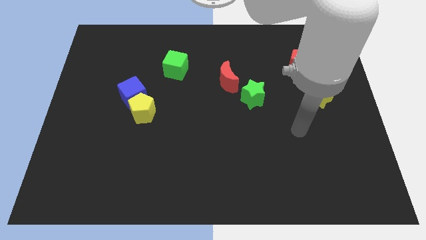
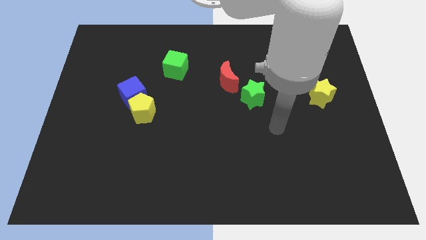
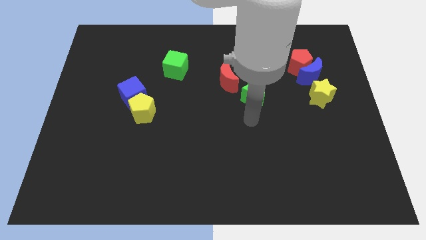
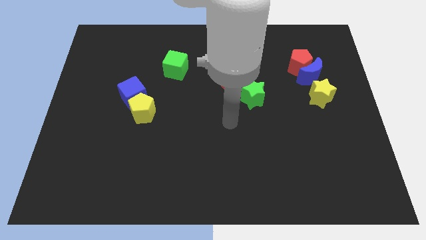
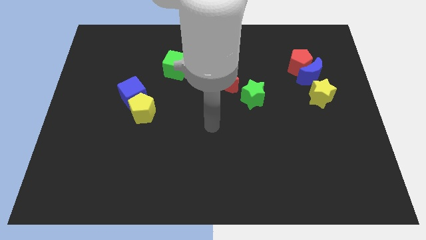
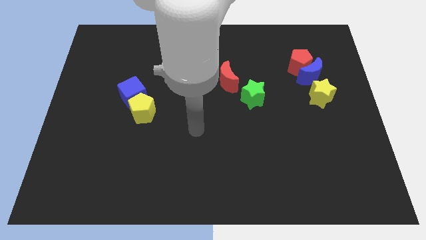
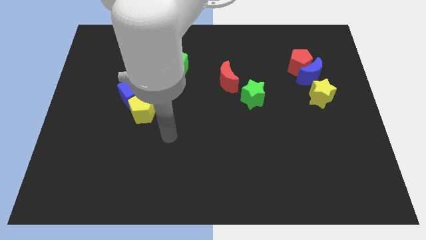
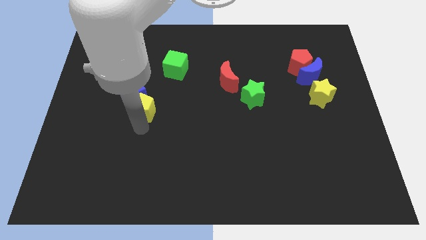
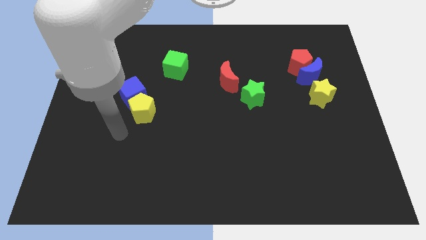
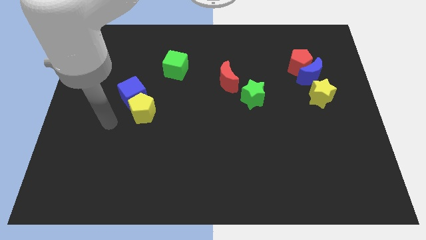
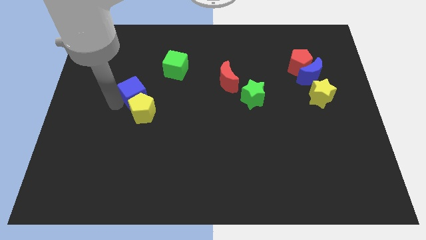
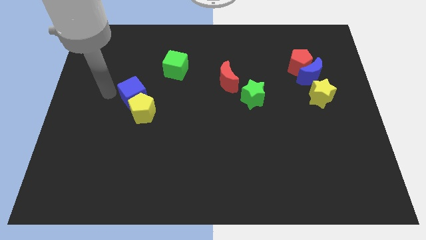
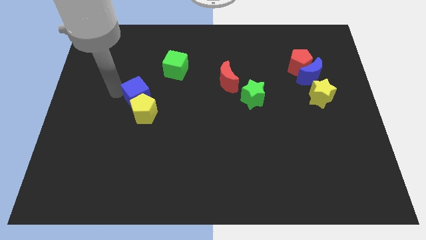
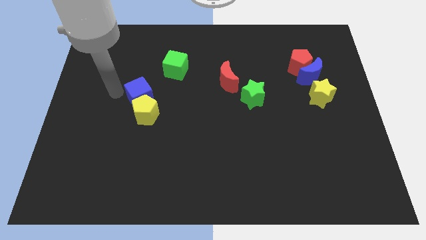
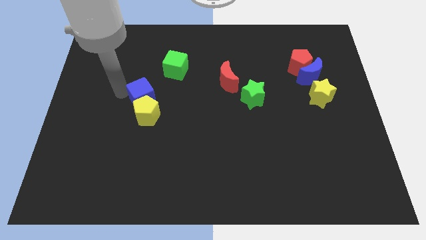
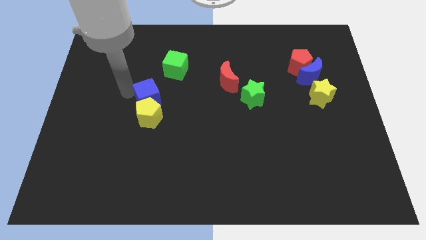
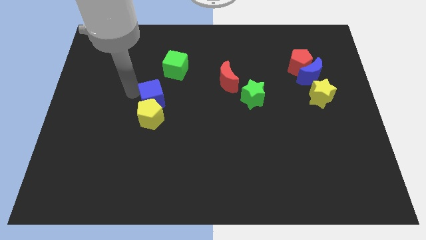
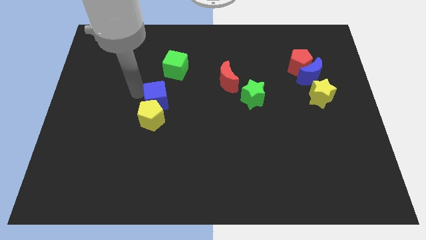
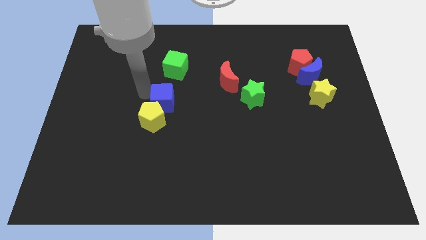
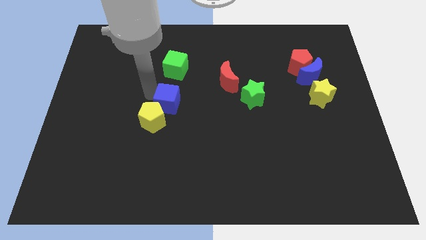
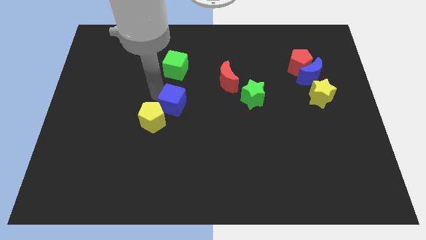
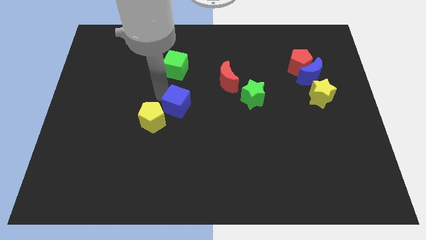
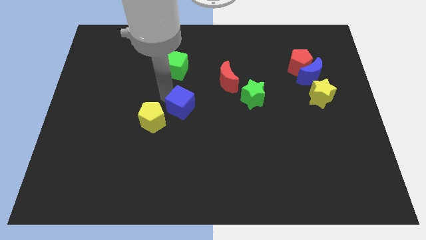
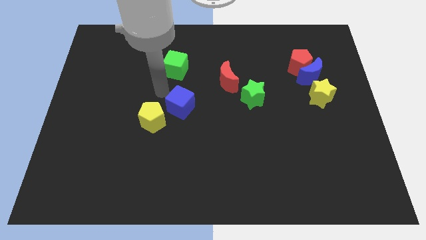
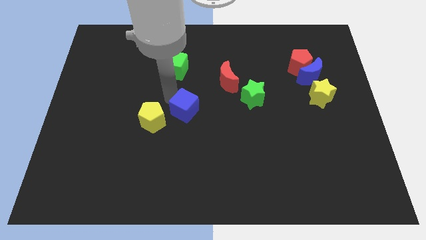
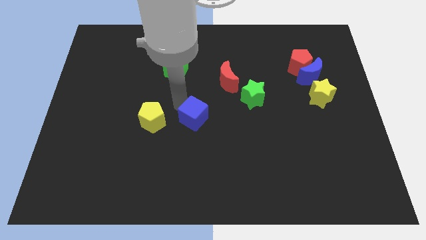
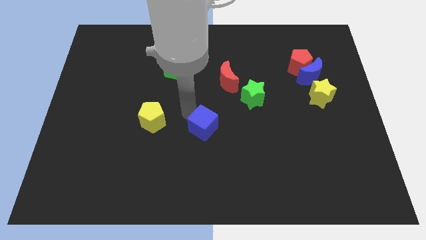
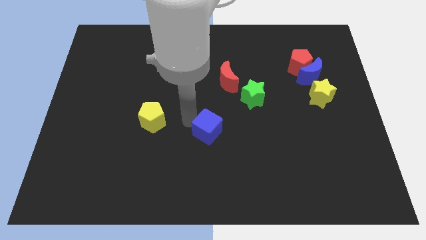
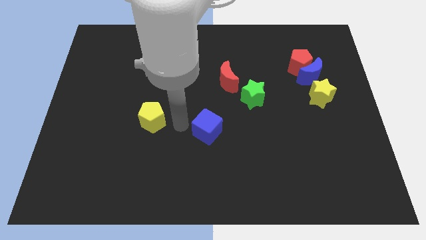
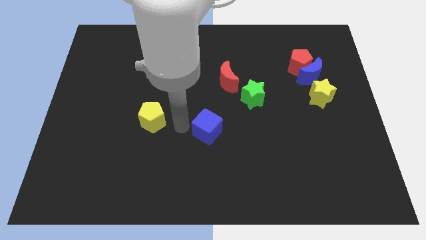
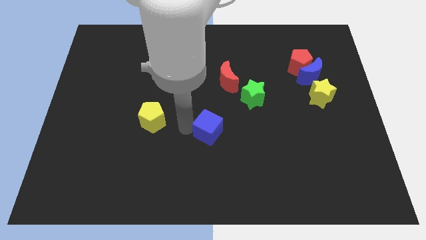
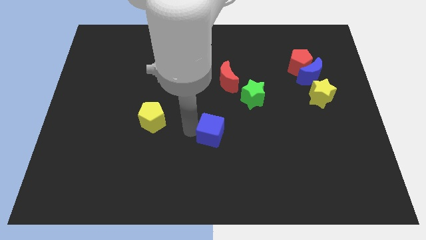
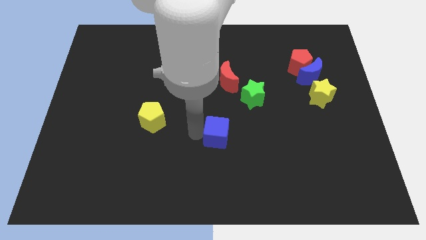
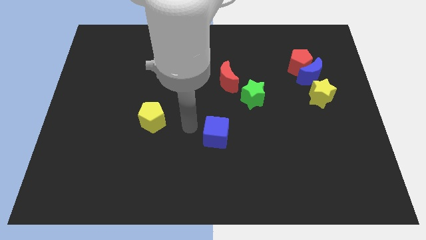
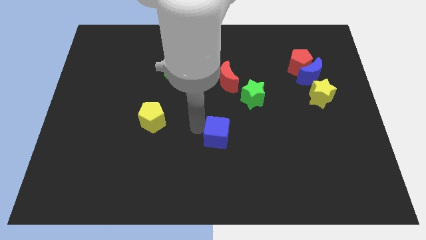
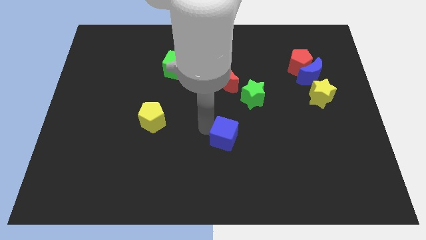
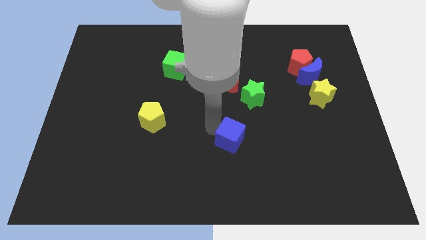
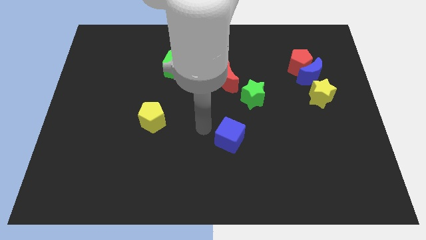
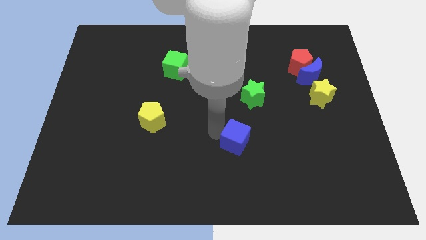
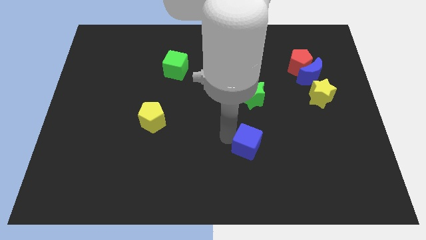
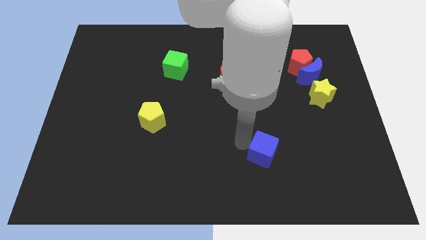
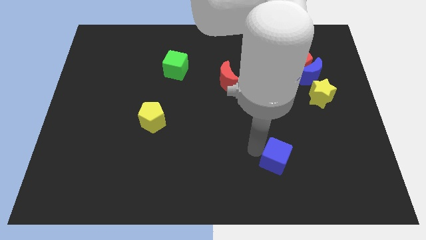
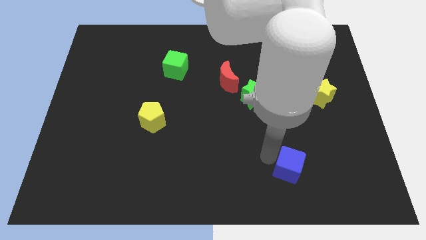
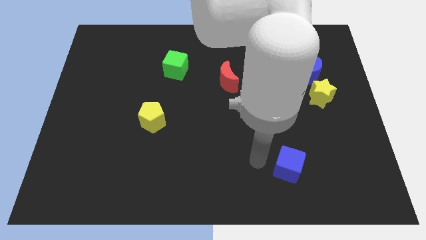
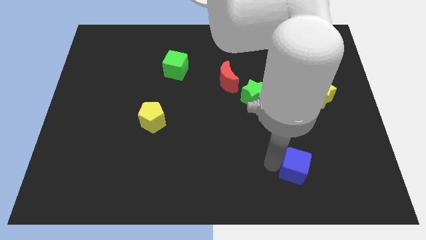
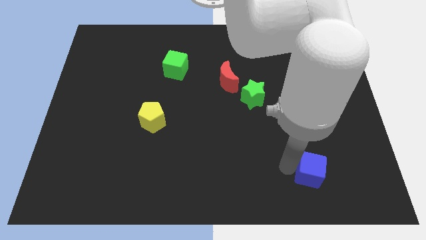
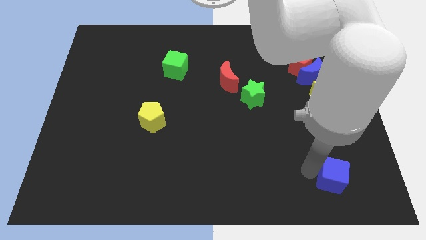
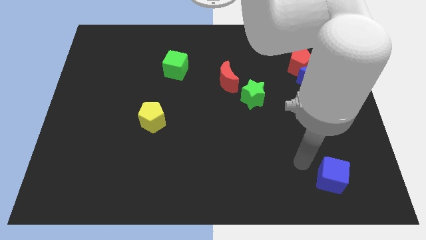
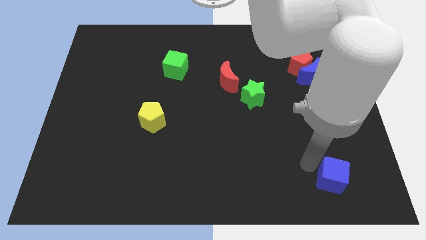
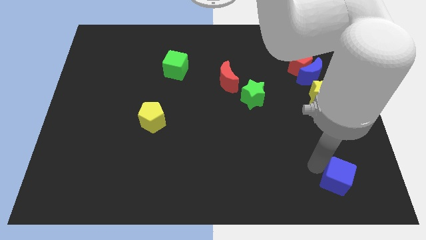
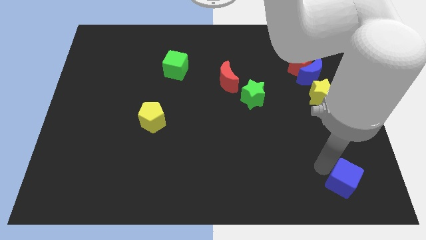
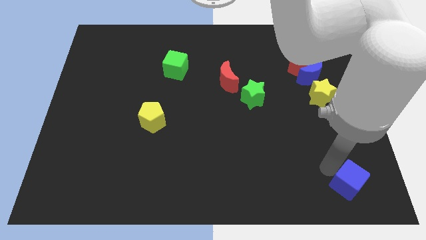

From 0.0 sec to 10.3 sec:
push the blue cube to the bottom right corner
